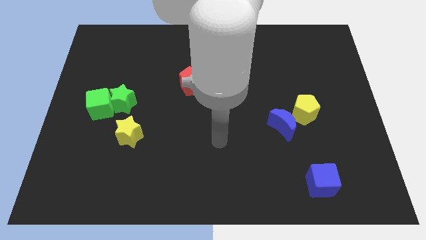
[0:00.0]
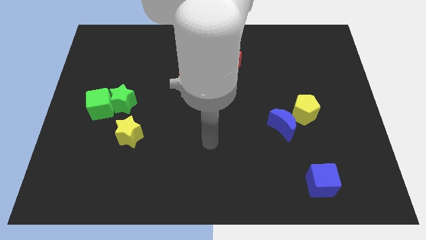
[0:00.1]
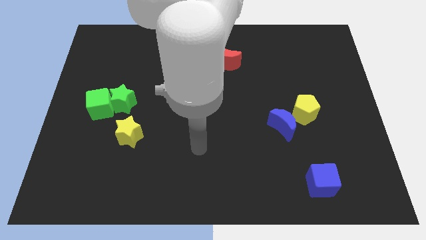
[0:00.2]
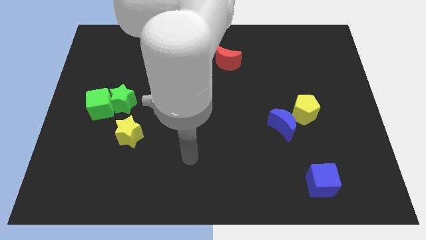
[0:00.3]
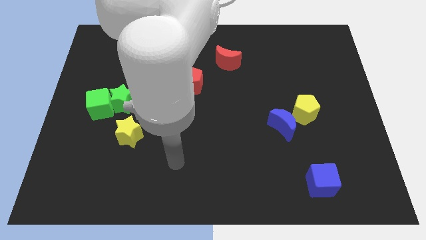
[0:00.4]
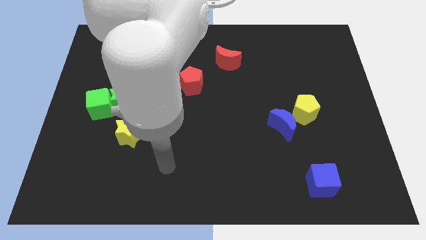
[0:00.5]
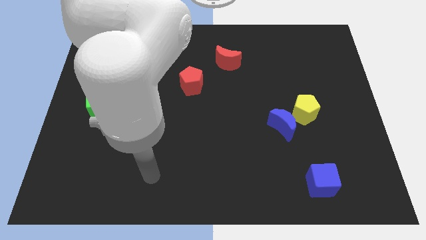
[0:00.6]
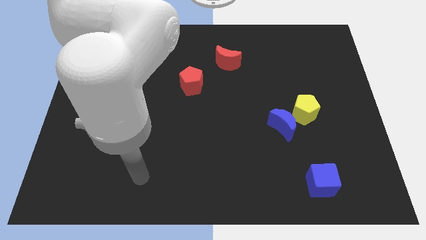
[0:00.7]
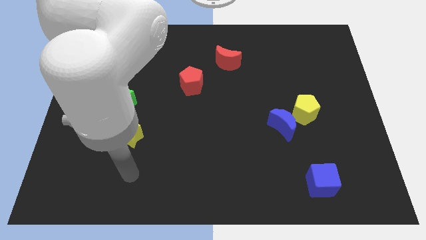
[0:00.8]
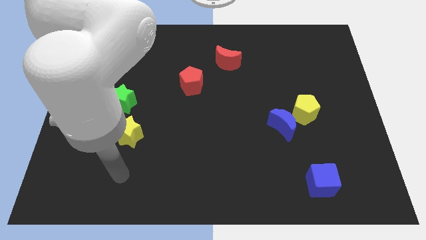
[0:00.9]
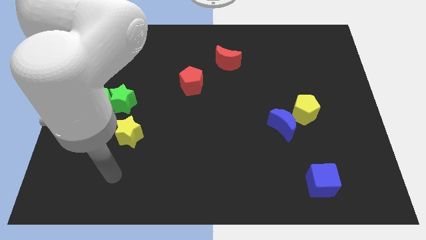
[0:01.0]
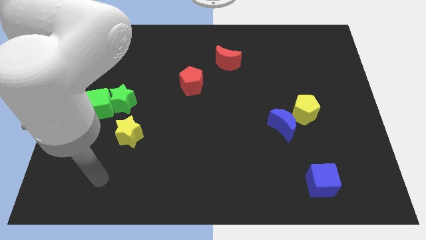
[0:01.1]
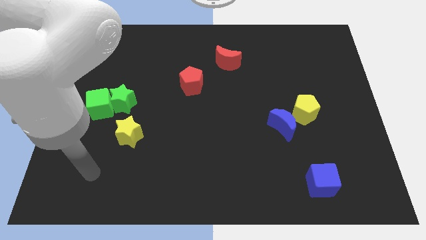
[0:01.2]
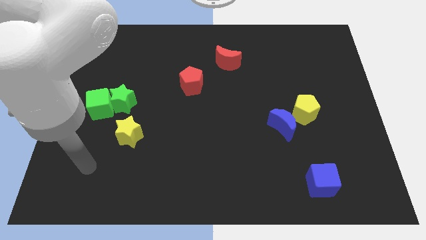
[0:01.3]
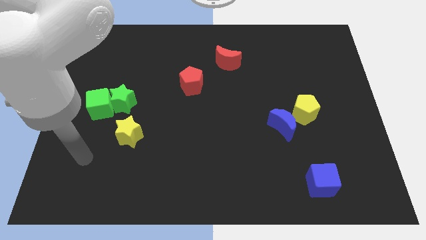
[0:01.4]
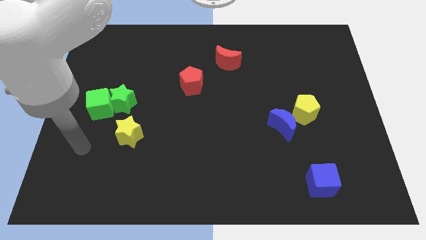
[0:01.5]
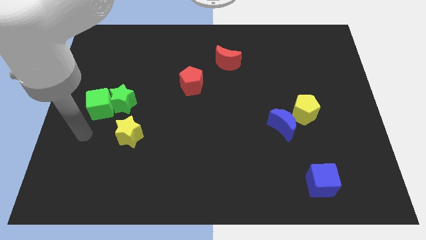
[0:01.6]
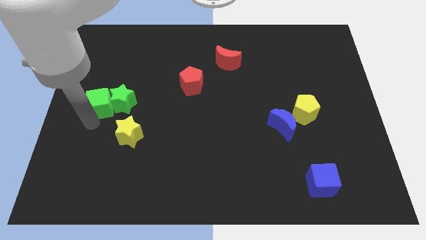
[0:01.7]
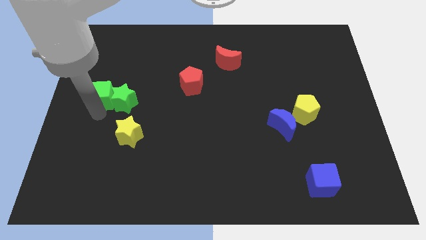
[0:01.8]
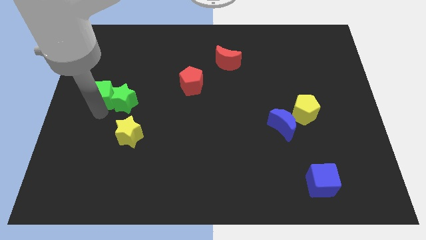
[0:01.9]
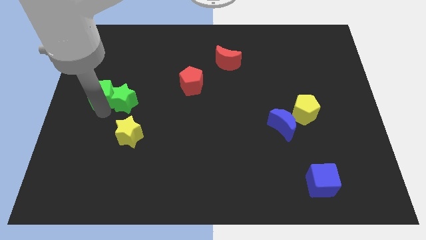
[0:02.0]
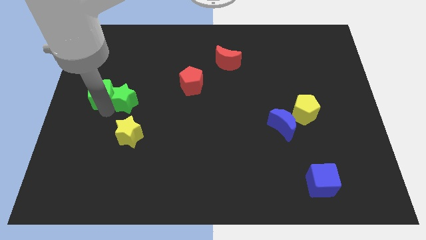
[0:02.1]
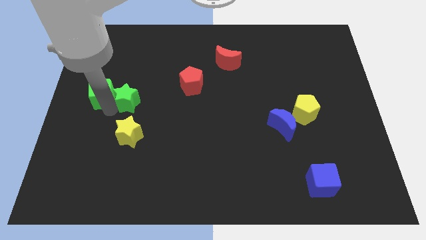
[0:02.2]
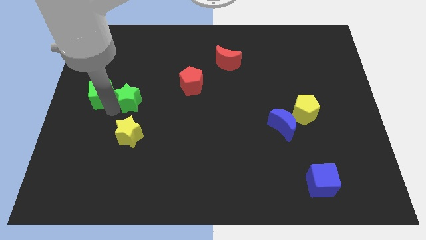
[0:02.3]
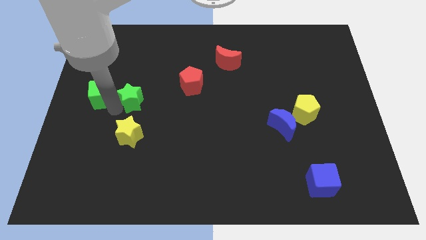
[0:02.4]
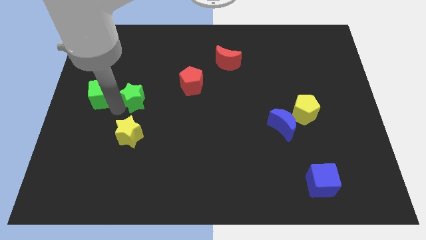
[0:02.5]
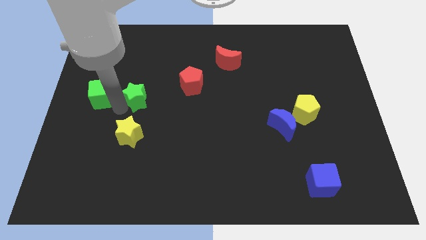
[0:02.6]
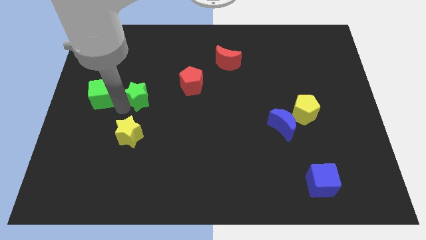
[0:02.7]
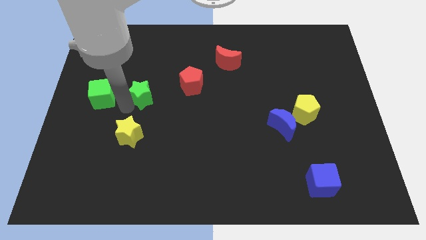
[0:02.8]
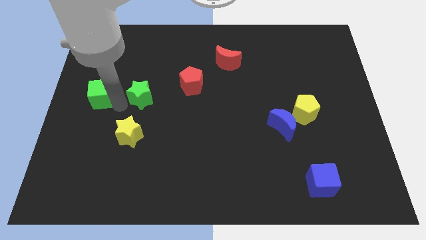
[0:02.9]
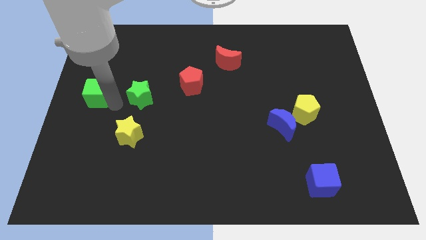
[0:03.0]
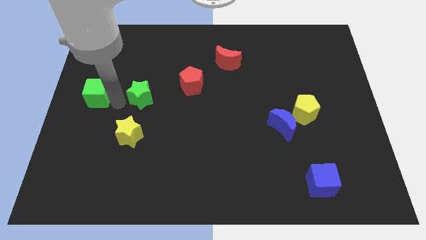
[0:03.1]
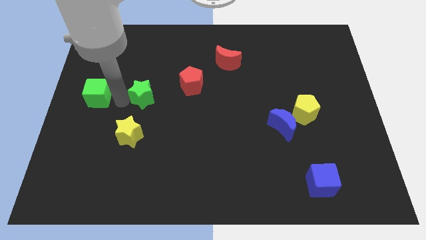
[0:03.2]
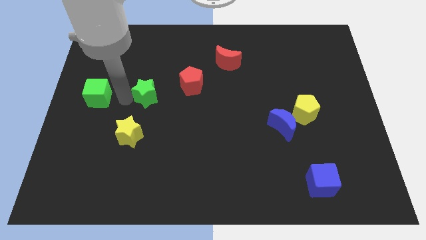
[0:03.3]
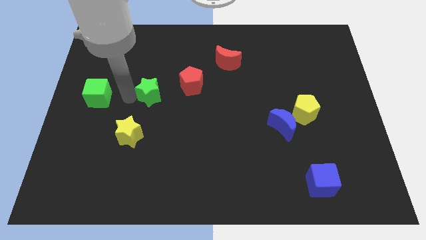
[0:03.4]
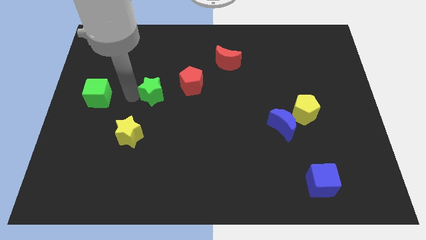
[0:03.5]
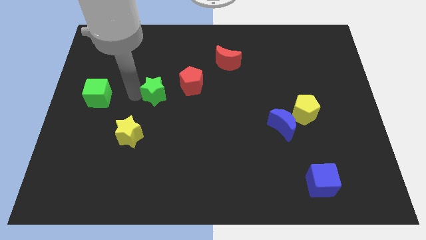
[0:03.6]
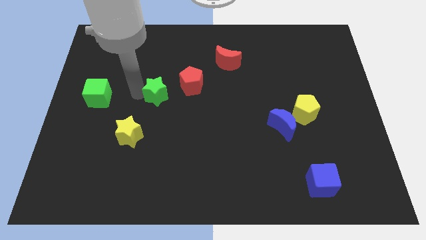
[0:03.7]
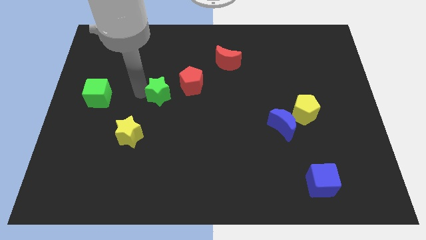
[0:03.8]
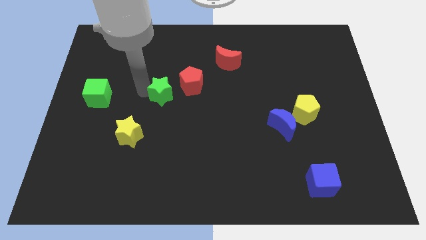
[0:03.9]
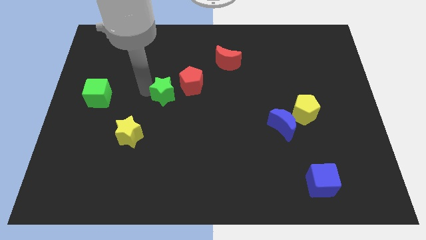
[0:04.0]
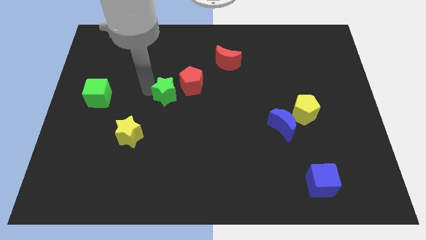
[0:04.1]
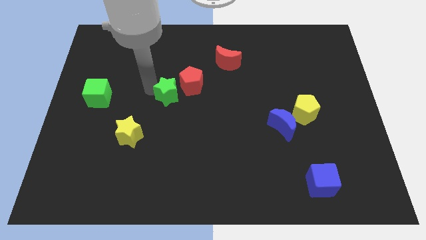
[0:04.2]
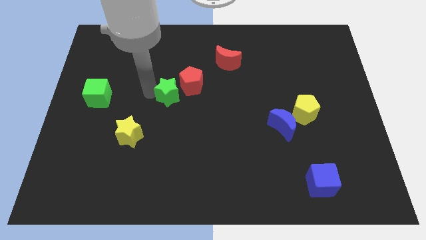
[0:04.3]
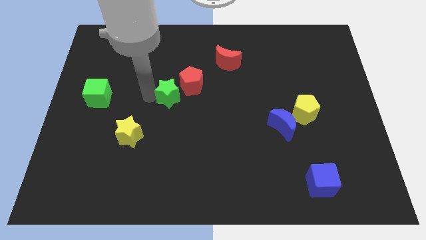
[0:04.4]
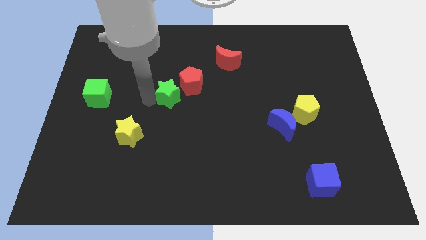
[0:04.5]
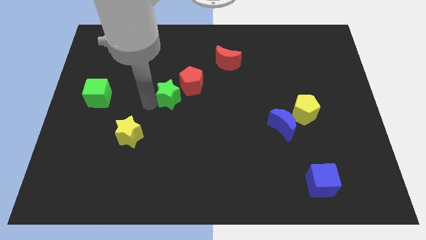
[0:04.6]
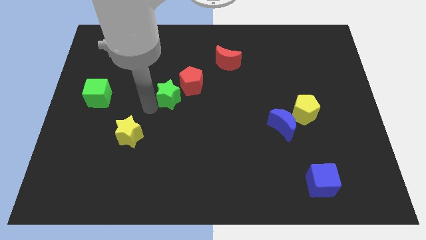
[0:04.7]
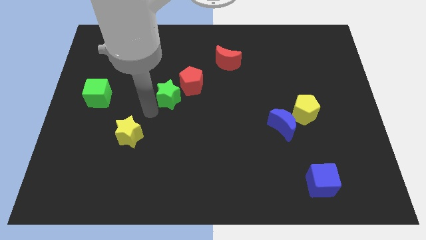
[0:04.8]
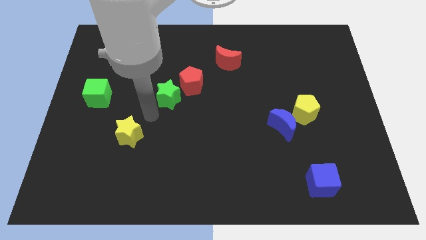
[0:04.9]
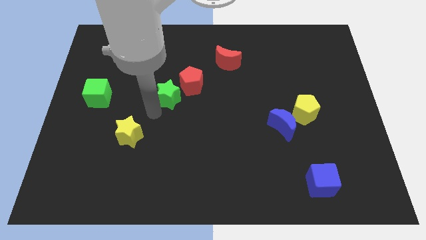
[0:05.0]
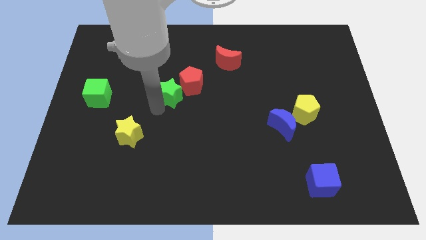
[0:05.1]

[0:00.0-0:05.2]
move the green star towards the red pentagon

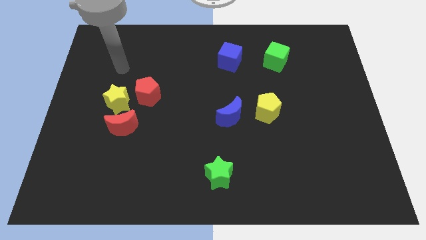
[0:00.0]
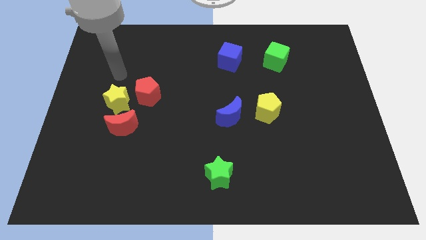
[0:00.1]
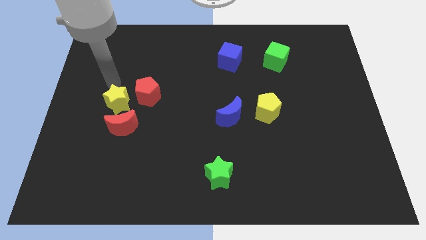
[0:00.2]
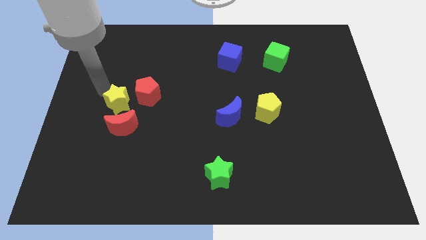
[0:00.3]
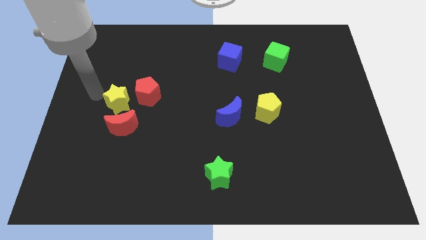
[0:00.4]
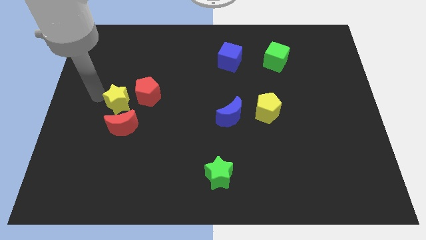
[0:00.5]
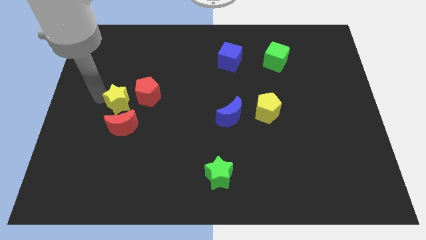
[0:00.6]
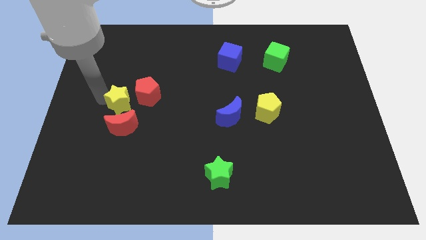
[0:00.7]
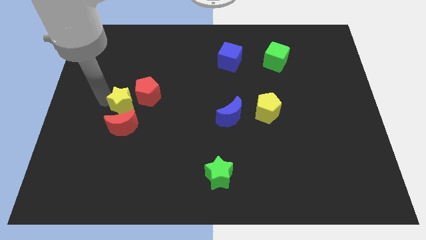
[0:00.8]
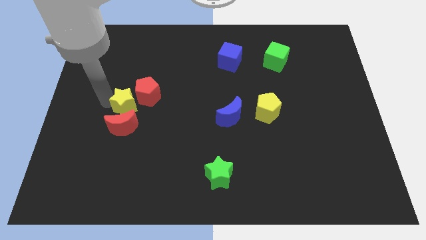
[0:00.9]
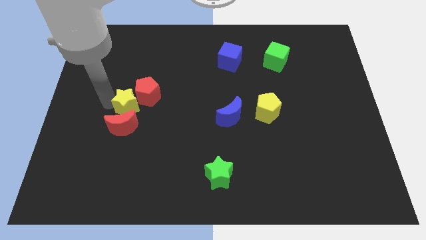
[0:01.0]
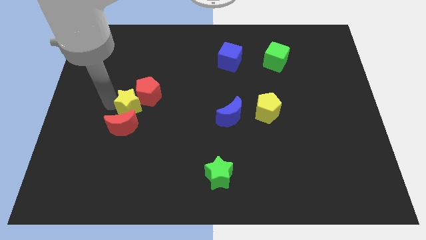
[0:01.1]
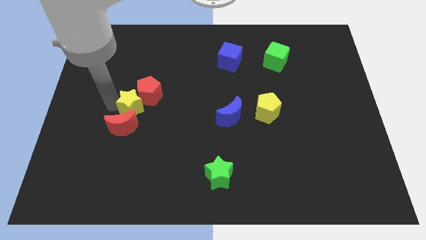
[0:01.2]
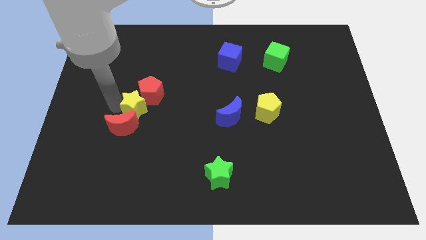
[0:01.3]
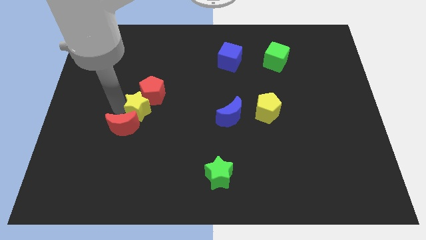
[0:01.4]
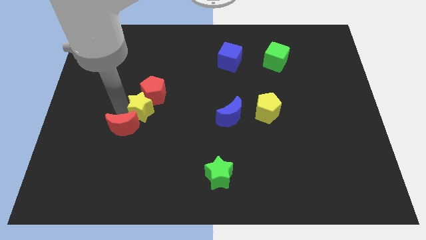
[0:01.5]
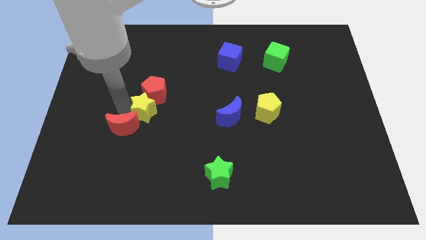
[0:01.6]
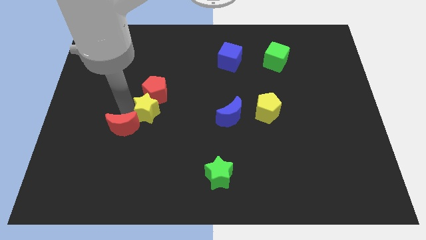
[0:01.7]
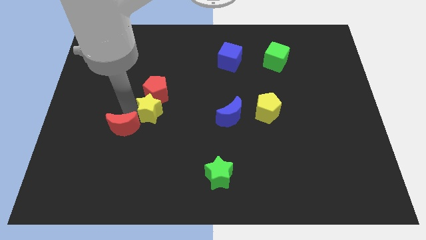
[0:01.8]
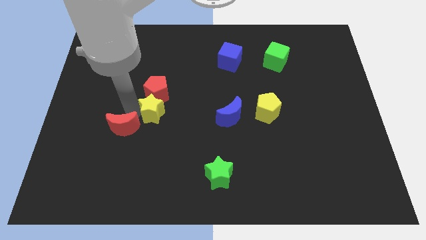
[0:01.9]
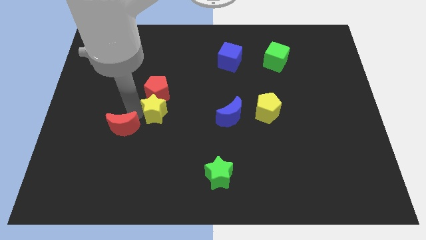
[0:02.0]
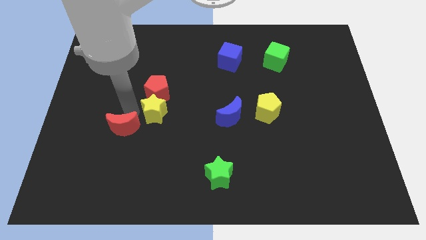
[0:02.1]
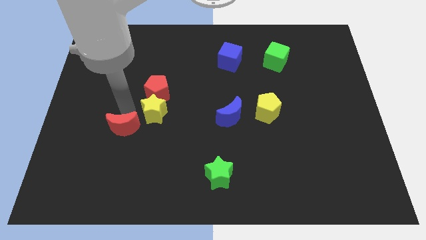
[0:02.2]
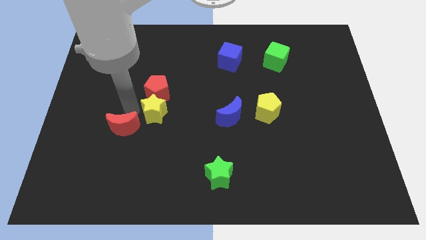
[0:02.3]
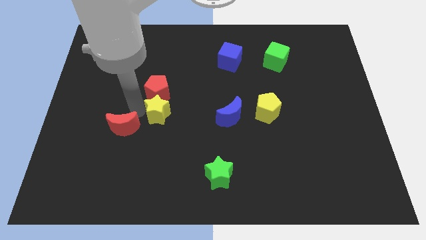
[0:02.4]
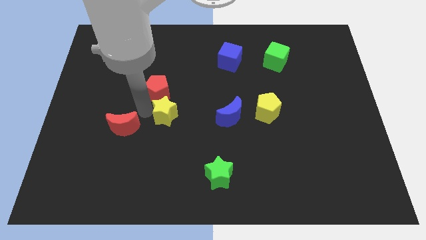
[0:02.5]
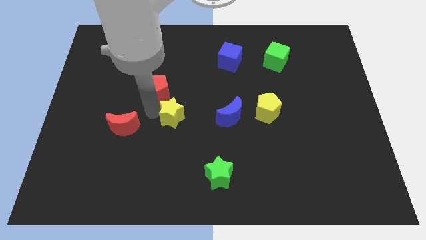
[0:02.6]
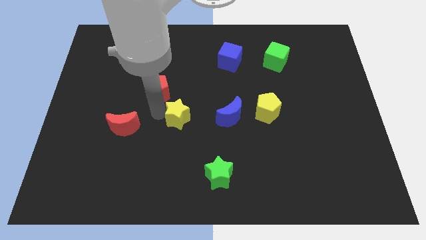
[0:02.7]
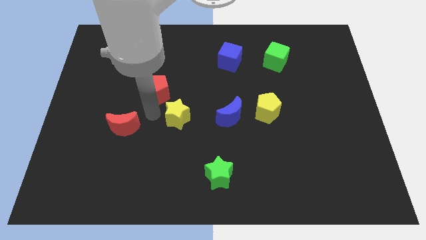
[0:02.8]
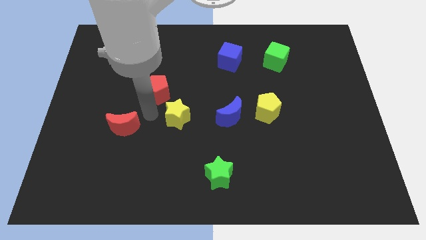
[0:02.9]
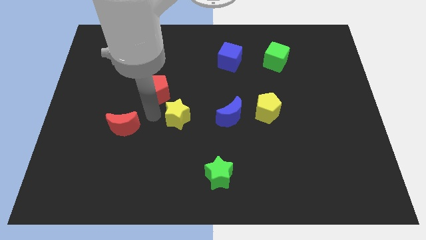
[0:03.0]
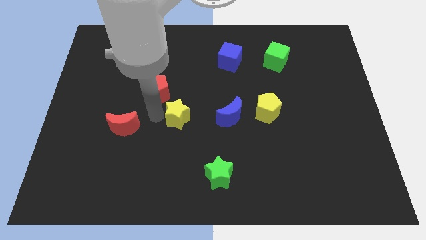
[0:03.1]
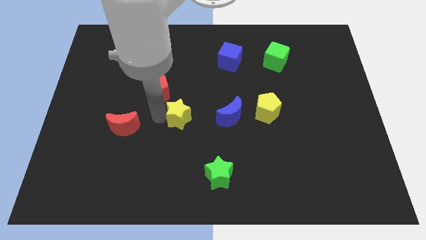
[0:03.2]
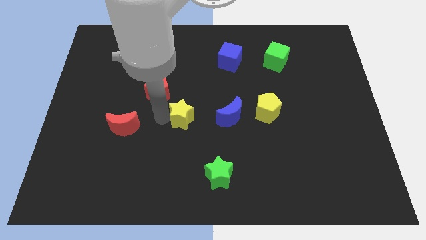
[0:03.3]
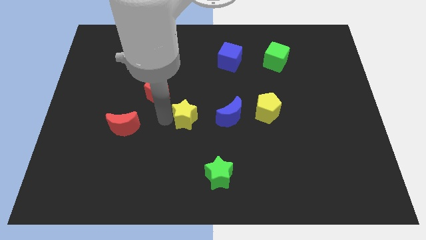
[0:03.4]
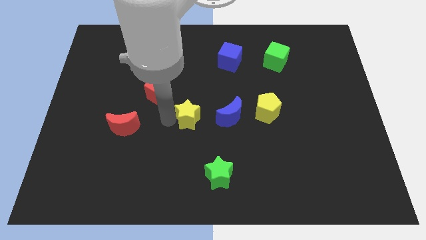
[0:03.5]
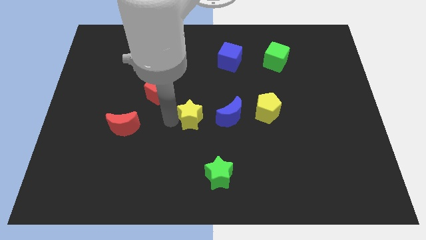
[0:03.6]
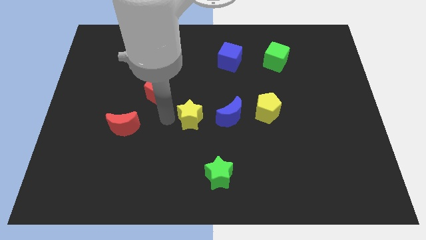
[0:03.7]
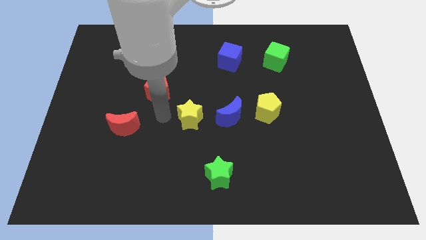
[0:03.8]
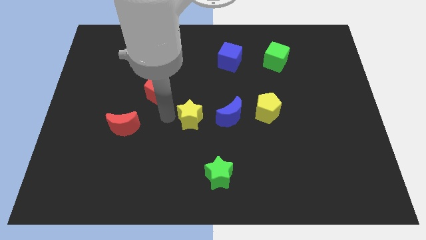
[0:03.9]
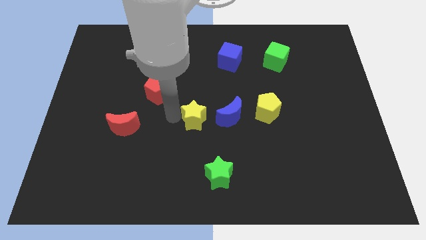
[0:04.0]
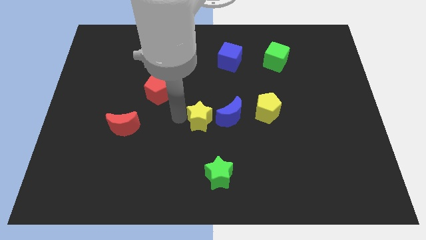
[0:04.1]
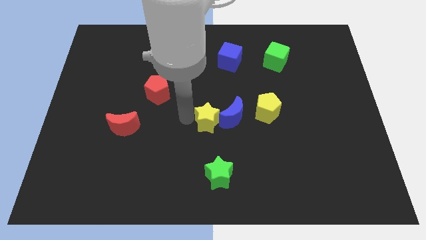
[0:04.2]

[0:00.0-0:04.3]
move the yellow star to the blue moon
